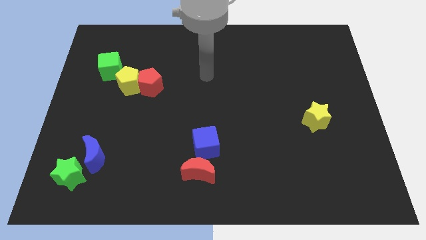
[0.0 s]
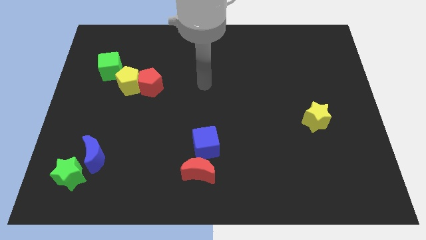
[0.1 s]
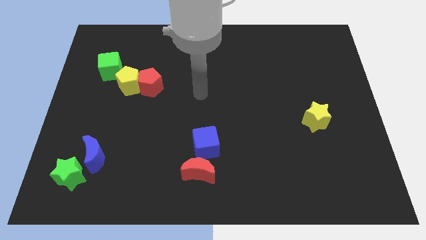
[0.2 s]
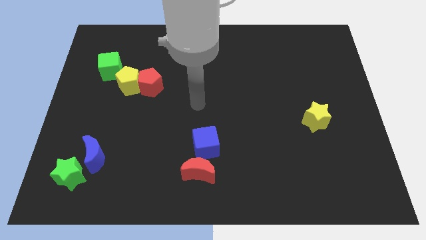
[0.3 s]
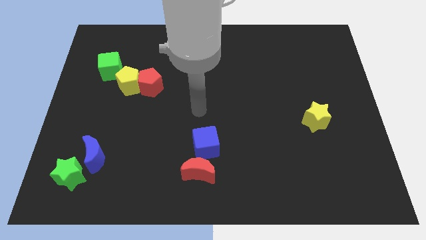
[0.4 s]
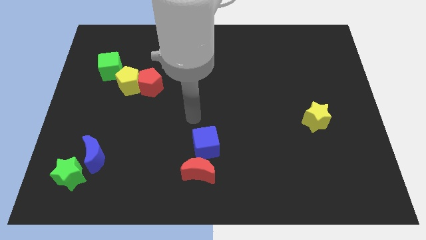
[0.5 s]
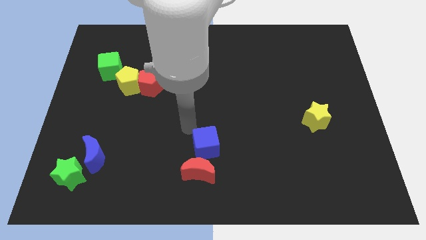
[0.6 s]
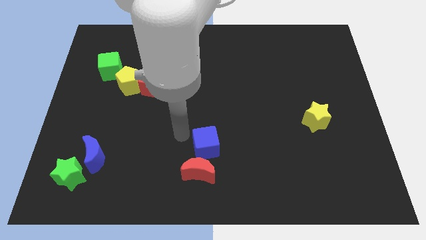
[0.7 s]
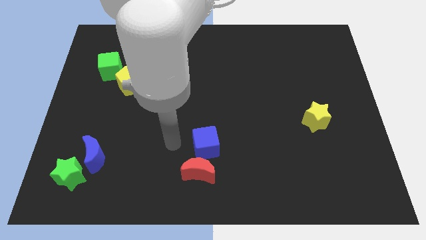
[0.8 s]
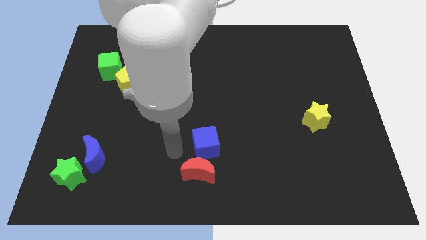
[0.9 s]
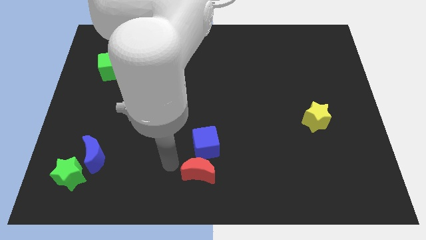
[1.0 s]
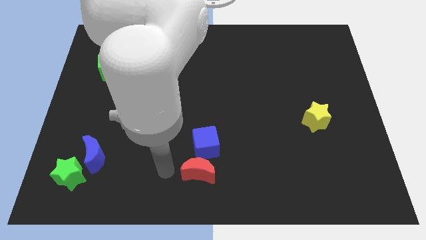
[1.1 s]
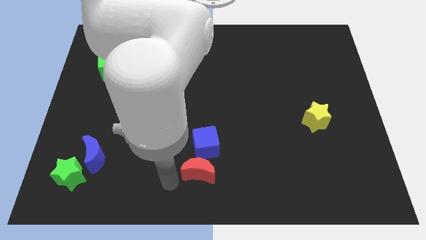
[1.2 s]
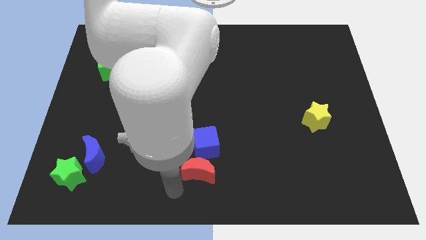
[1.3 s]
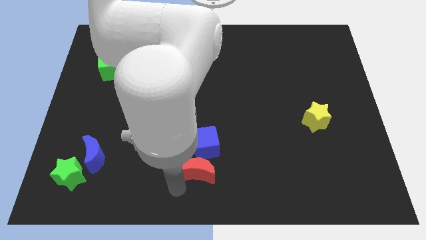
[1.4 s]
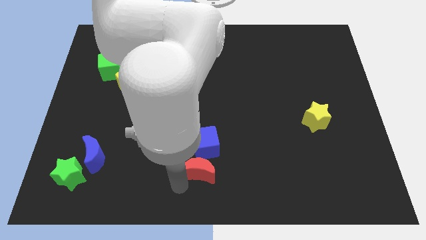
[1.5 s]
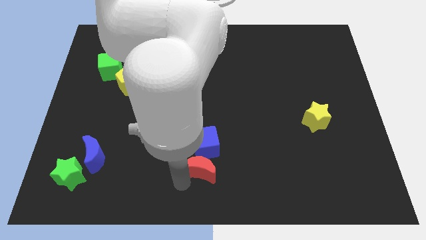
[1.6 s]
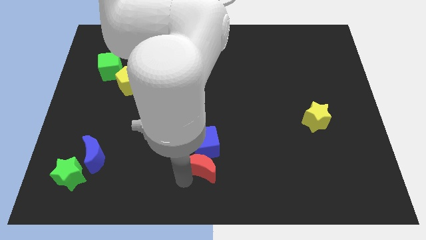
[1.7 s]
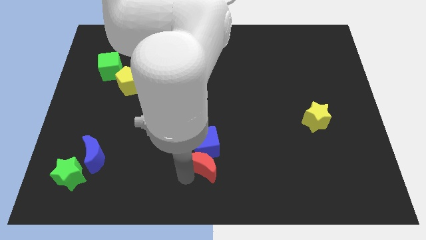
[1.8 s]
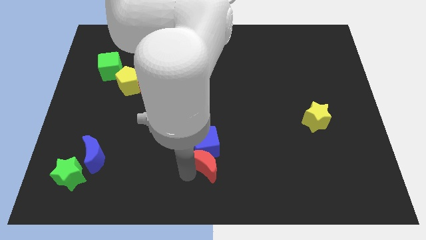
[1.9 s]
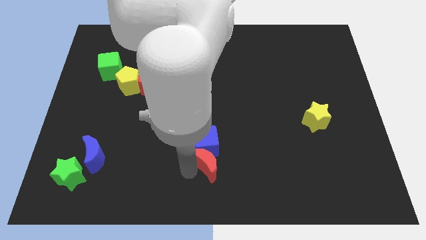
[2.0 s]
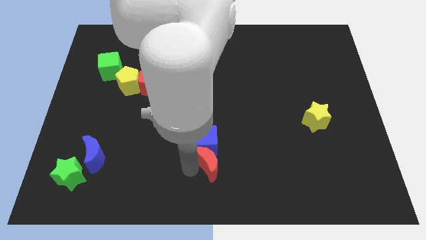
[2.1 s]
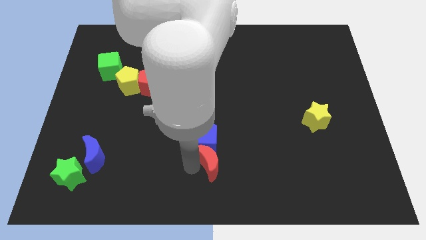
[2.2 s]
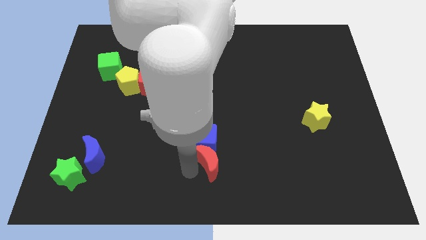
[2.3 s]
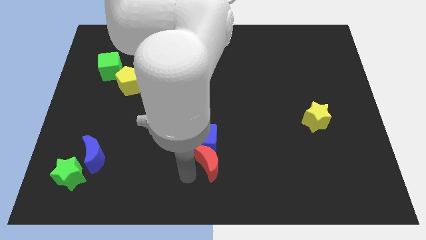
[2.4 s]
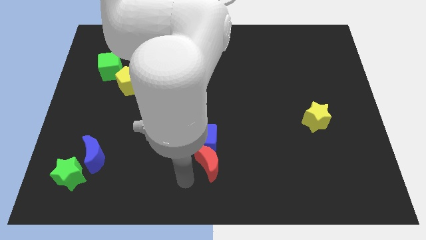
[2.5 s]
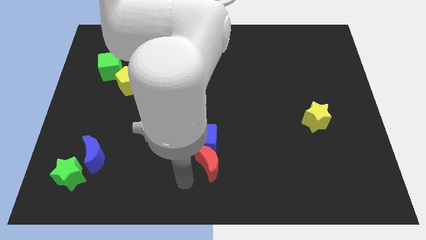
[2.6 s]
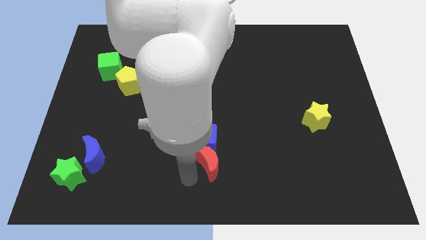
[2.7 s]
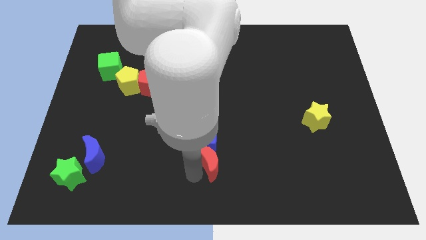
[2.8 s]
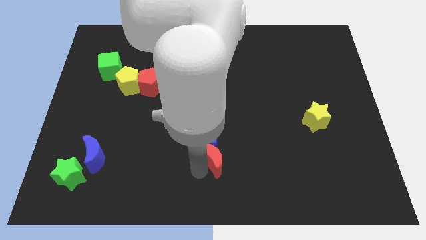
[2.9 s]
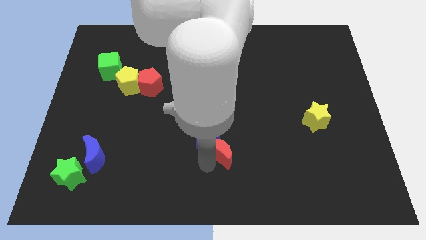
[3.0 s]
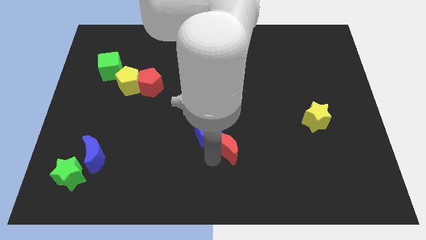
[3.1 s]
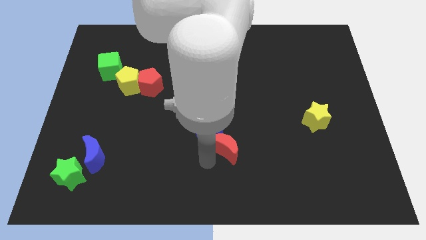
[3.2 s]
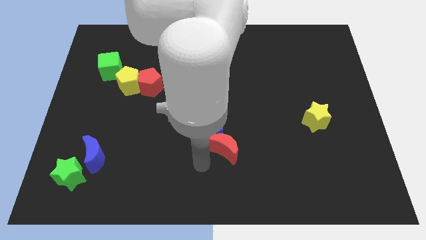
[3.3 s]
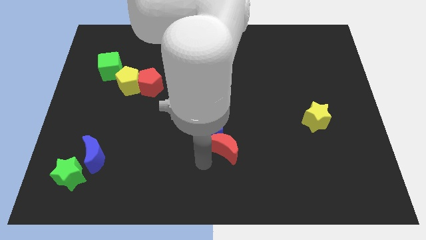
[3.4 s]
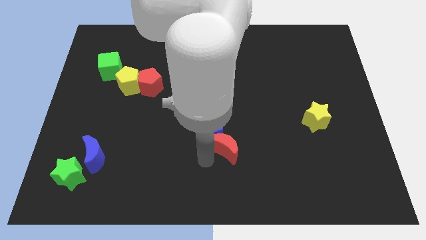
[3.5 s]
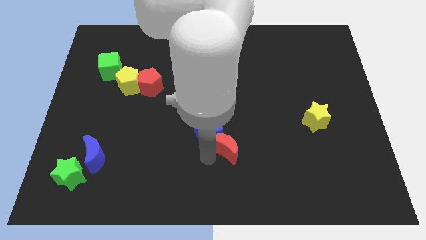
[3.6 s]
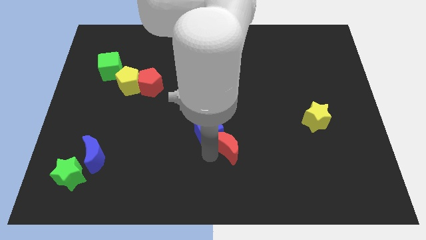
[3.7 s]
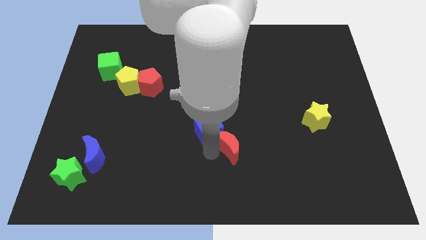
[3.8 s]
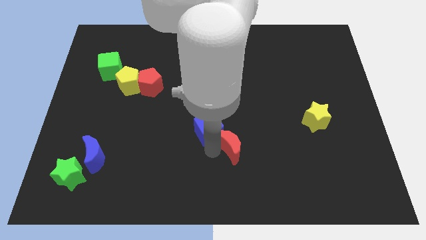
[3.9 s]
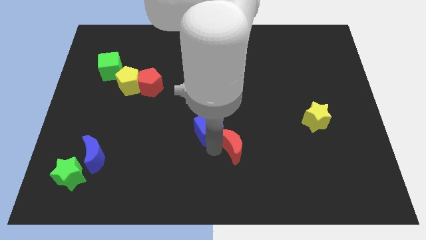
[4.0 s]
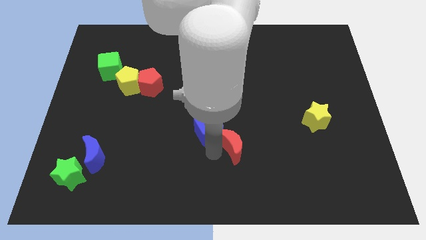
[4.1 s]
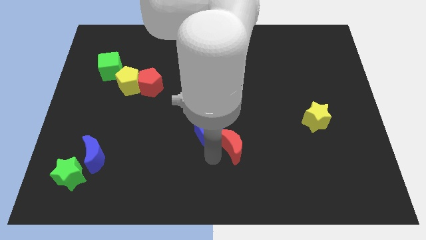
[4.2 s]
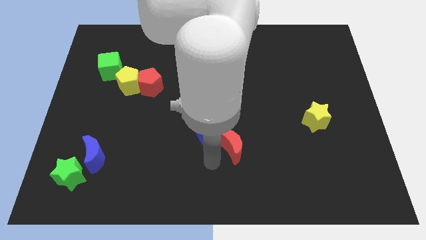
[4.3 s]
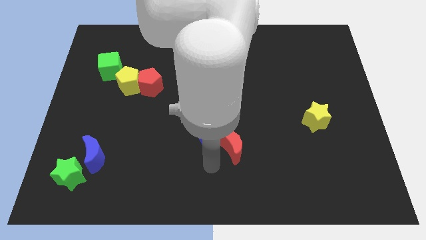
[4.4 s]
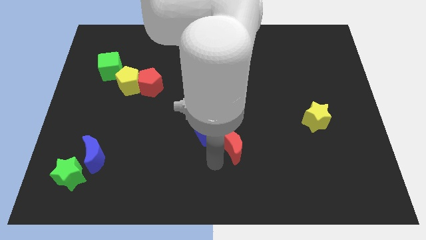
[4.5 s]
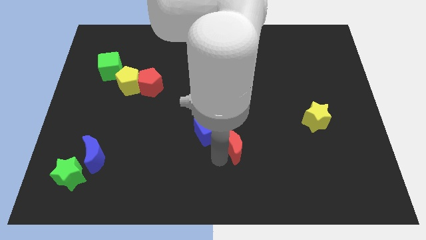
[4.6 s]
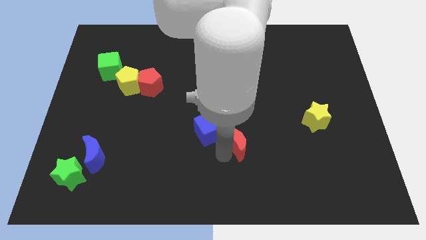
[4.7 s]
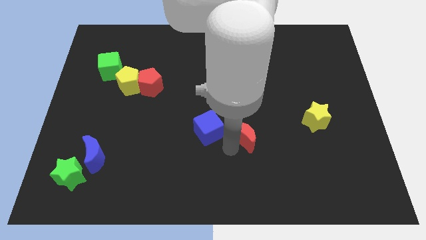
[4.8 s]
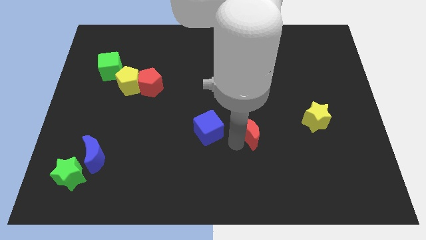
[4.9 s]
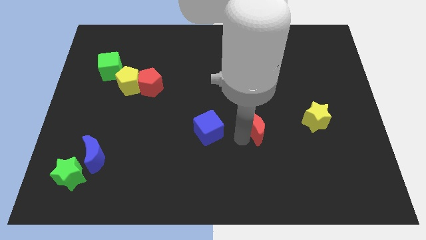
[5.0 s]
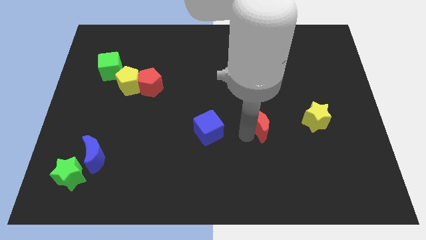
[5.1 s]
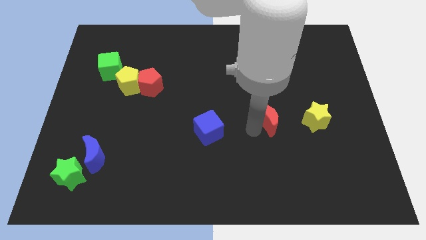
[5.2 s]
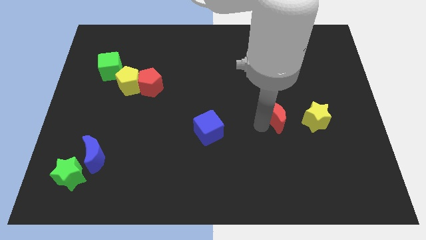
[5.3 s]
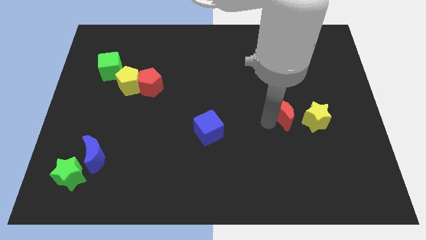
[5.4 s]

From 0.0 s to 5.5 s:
push the red moon to the top left side of the yellow star

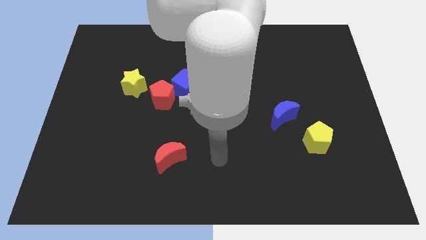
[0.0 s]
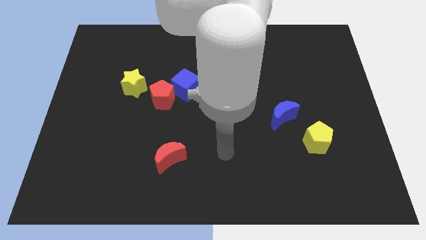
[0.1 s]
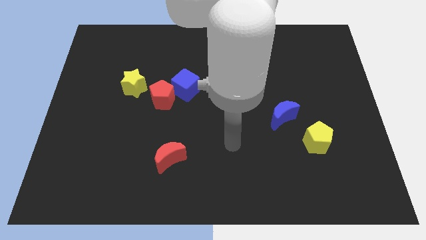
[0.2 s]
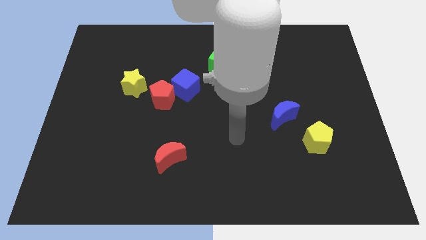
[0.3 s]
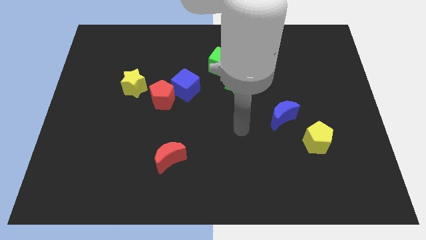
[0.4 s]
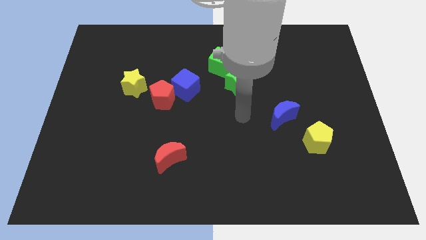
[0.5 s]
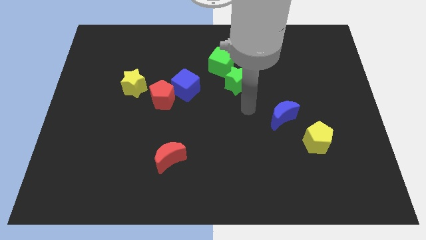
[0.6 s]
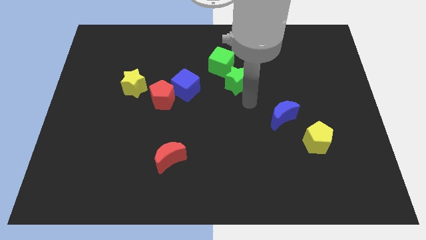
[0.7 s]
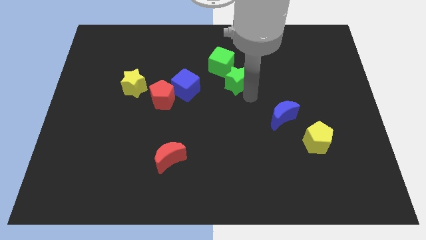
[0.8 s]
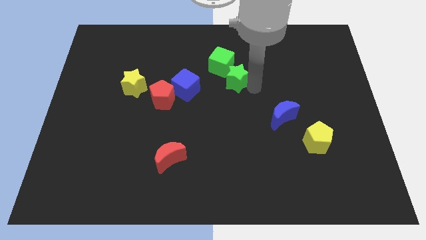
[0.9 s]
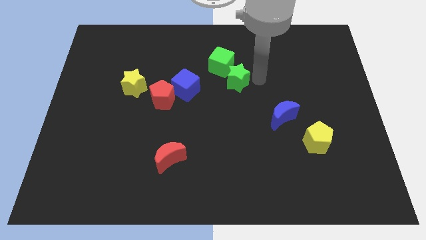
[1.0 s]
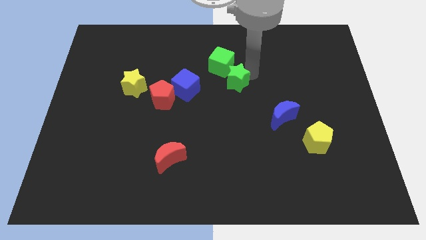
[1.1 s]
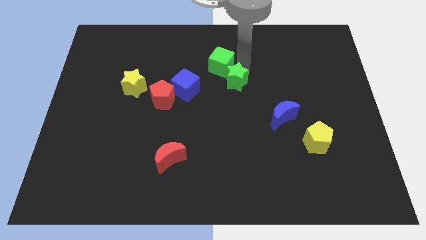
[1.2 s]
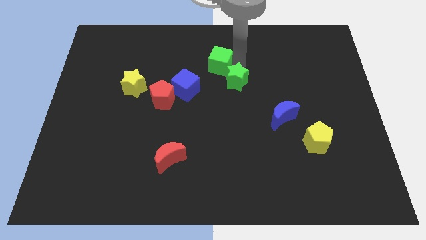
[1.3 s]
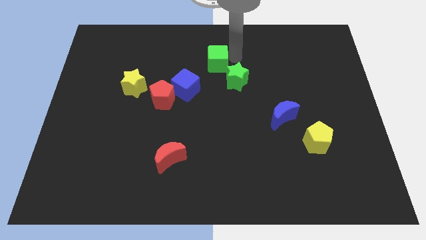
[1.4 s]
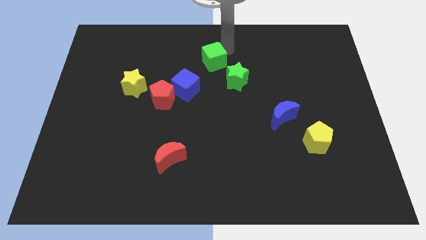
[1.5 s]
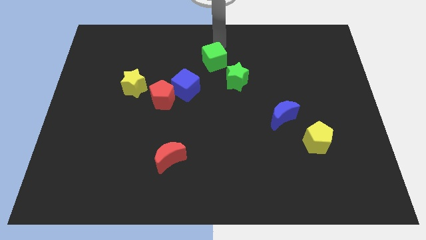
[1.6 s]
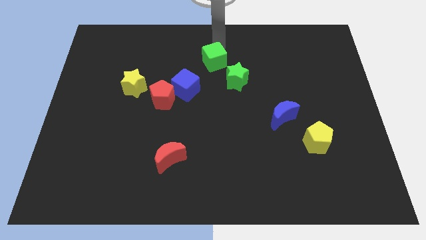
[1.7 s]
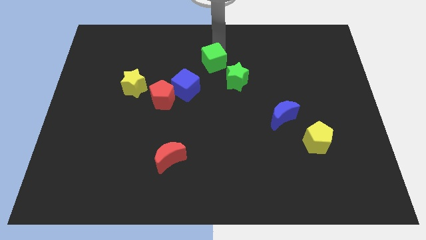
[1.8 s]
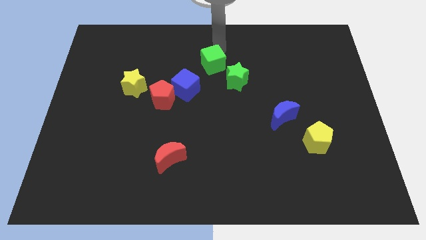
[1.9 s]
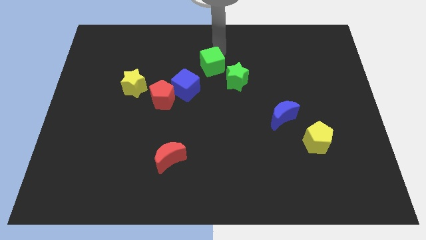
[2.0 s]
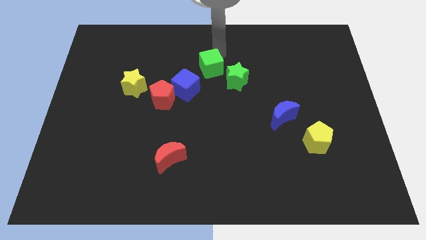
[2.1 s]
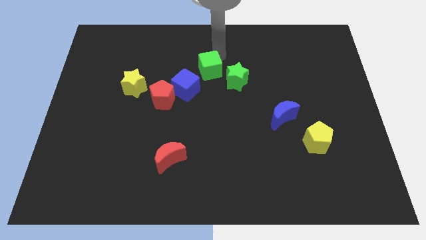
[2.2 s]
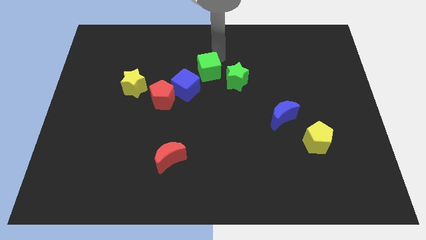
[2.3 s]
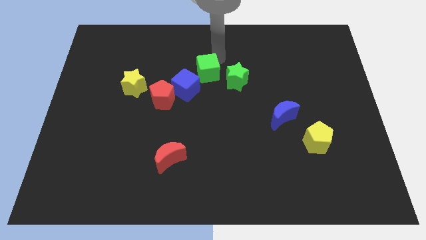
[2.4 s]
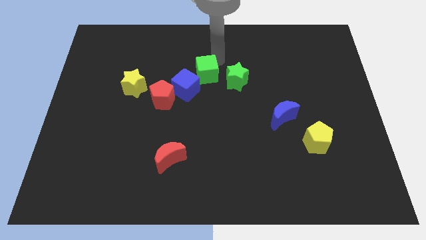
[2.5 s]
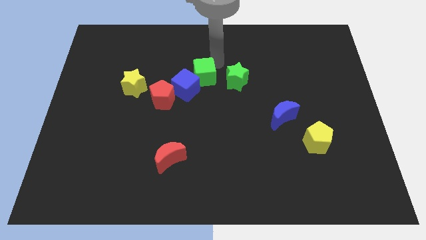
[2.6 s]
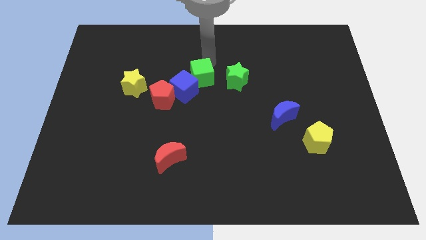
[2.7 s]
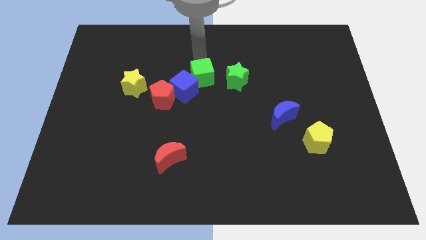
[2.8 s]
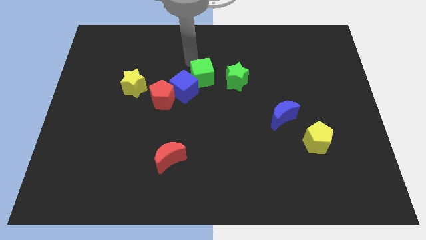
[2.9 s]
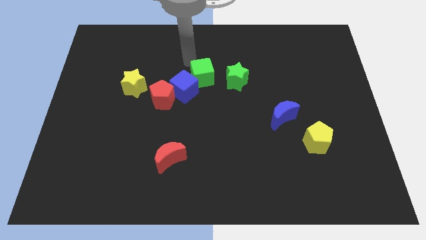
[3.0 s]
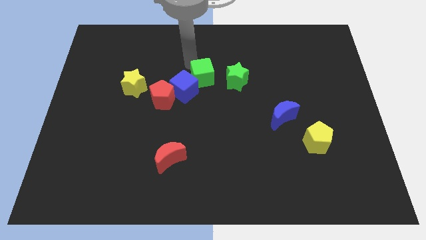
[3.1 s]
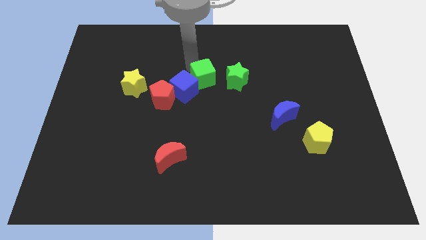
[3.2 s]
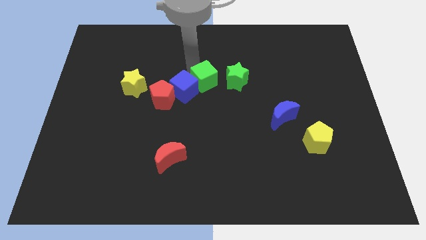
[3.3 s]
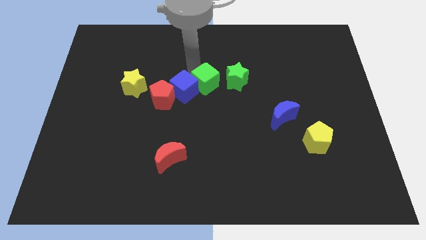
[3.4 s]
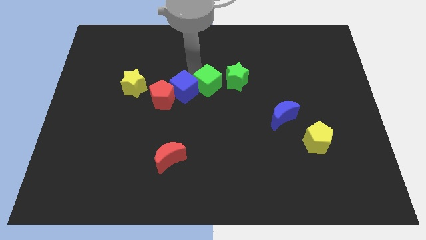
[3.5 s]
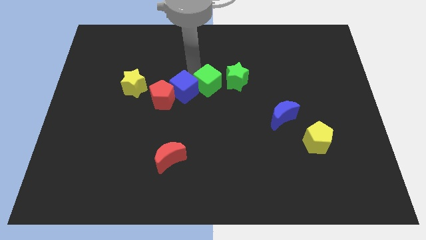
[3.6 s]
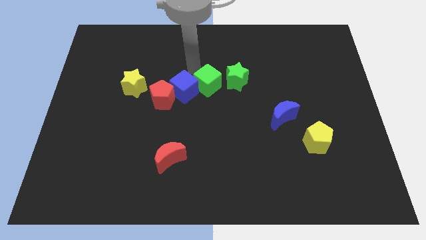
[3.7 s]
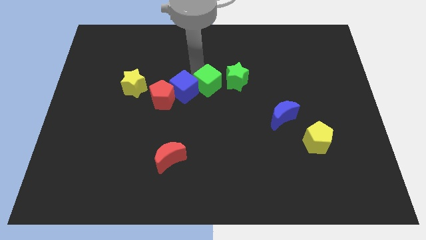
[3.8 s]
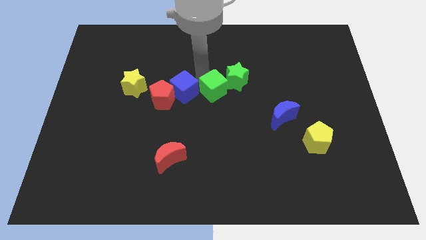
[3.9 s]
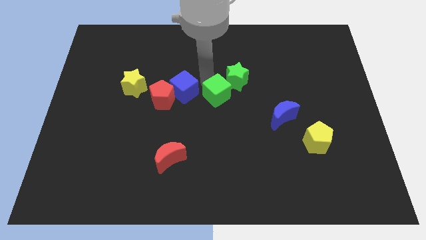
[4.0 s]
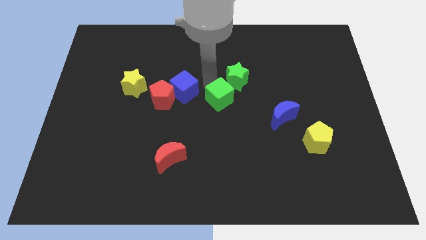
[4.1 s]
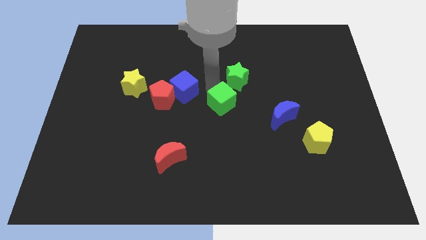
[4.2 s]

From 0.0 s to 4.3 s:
move the green cube left of the blue moon
